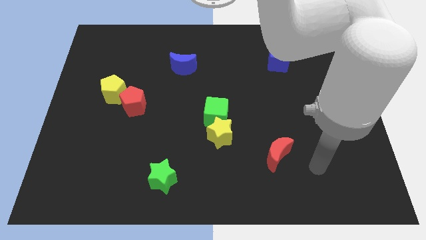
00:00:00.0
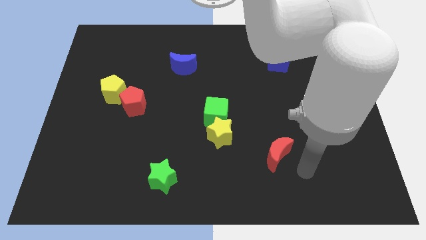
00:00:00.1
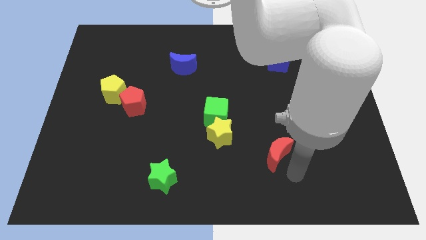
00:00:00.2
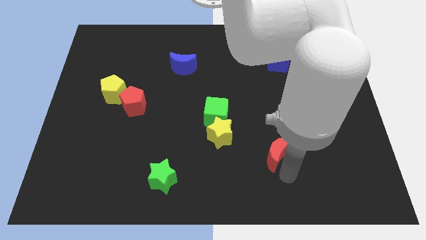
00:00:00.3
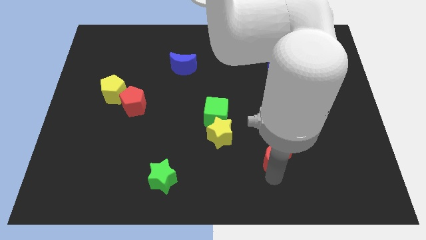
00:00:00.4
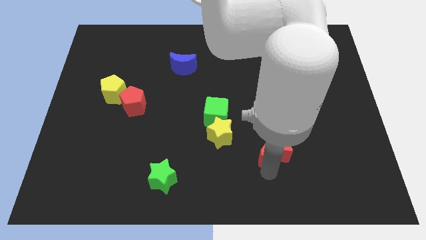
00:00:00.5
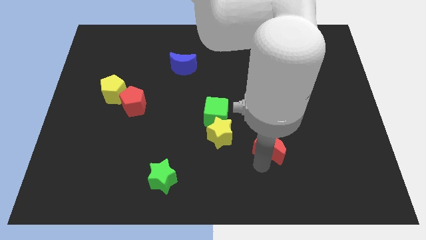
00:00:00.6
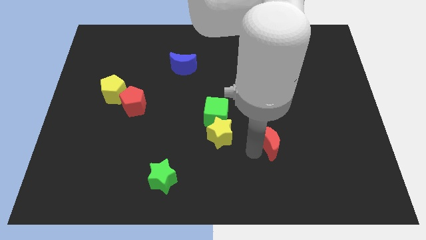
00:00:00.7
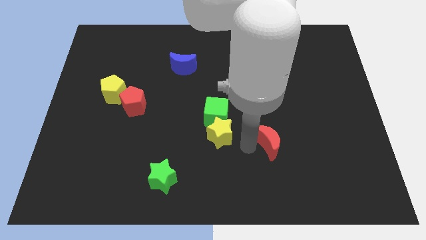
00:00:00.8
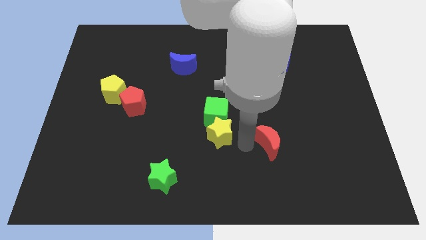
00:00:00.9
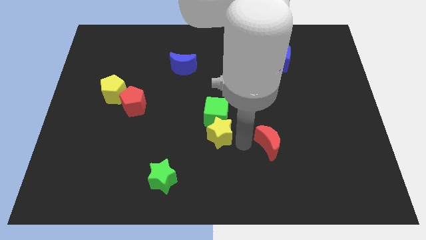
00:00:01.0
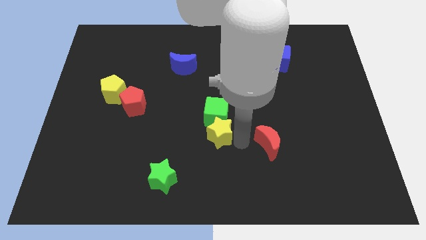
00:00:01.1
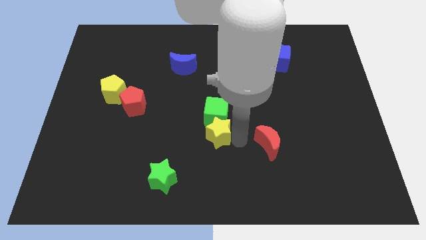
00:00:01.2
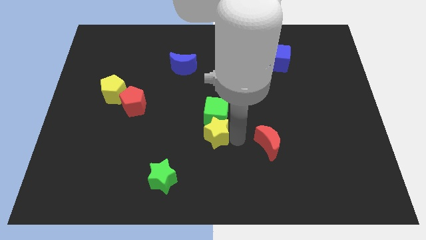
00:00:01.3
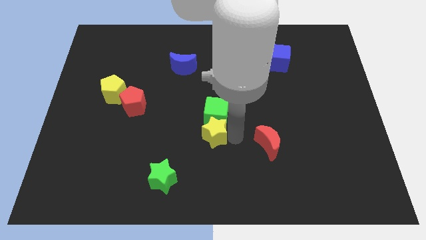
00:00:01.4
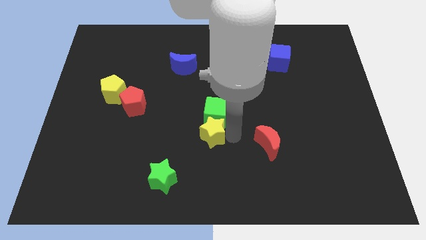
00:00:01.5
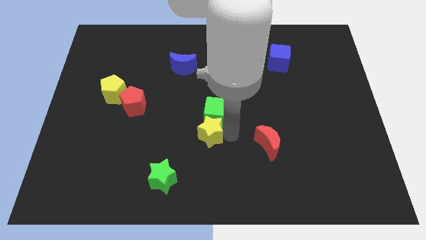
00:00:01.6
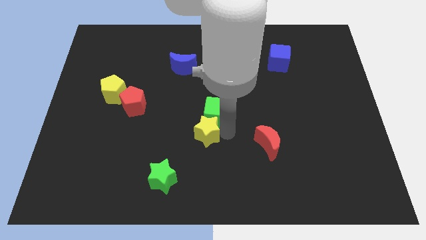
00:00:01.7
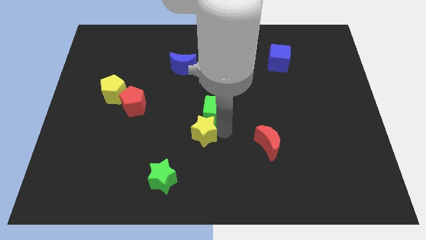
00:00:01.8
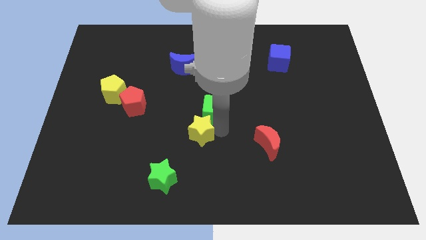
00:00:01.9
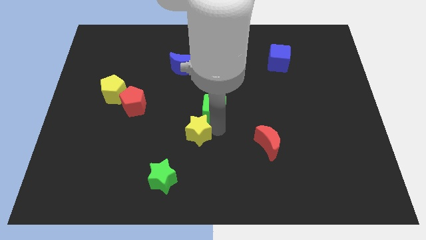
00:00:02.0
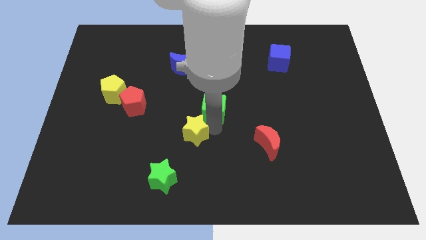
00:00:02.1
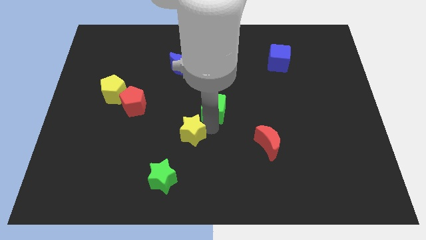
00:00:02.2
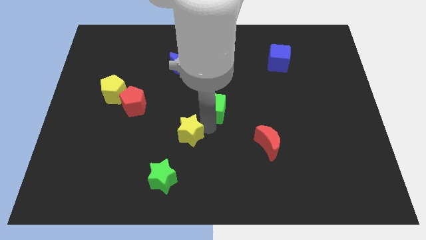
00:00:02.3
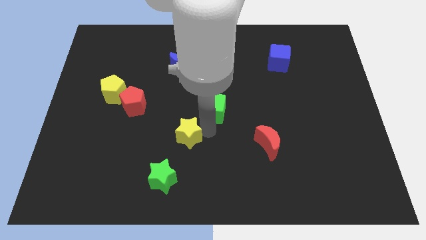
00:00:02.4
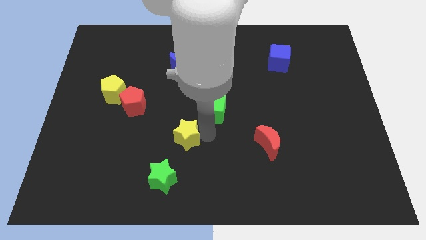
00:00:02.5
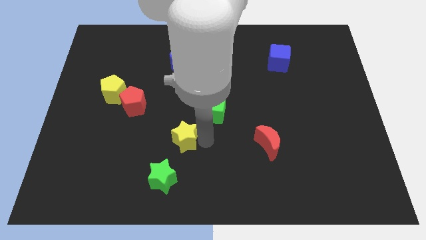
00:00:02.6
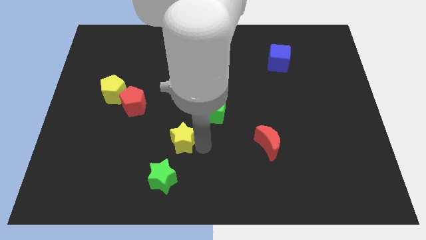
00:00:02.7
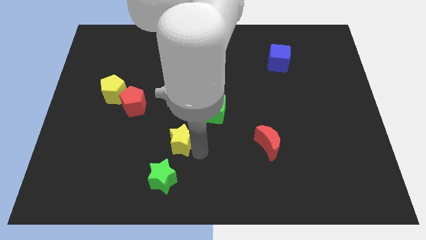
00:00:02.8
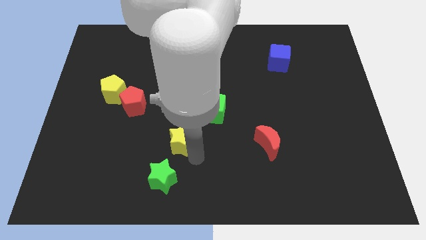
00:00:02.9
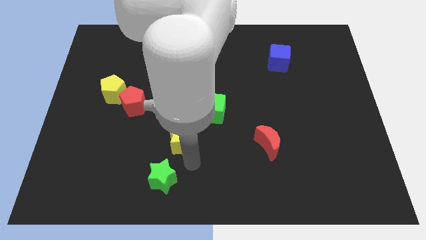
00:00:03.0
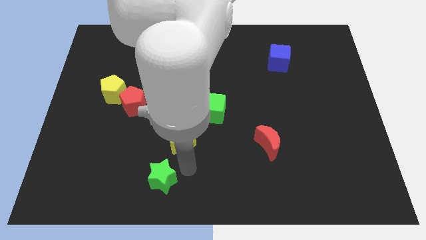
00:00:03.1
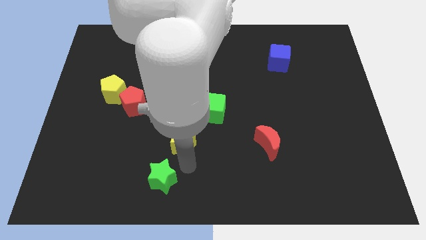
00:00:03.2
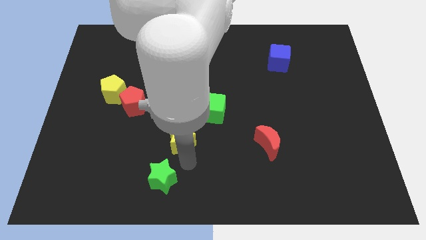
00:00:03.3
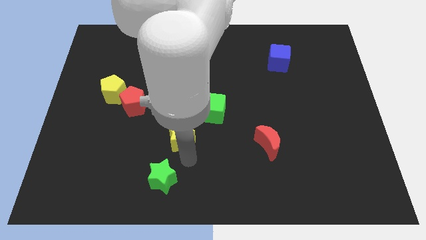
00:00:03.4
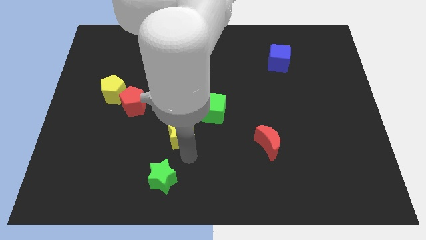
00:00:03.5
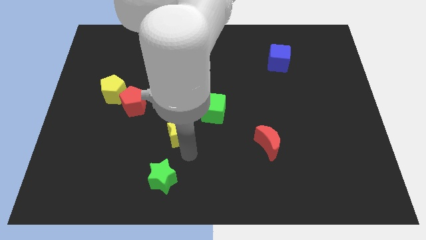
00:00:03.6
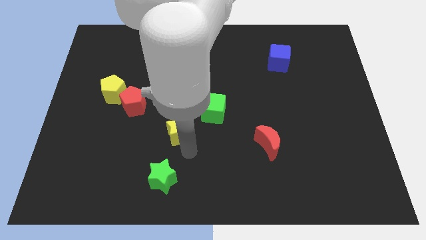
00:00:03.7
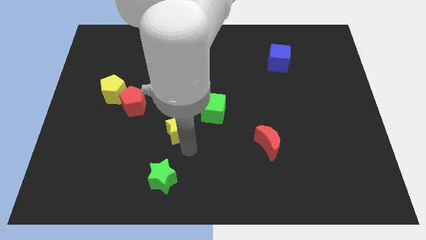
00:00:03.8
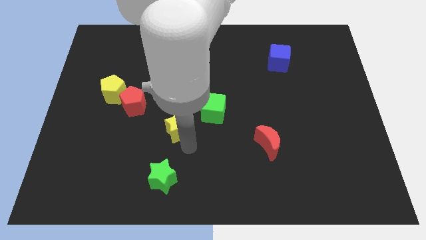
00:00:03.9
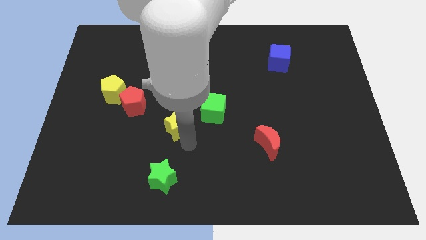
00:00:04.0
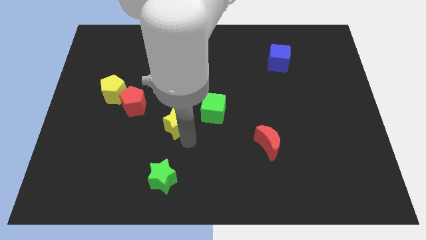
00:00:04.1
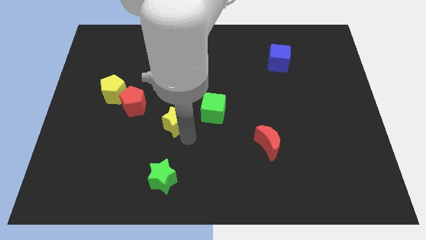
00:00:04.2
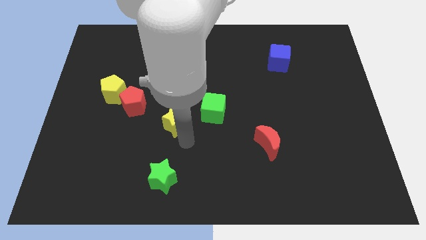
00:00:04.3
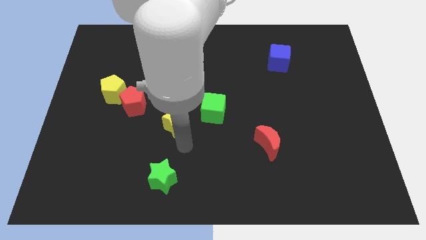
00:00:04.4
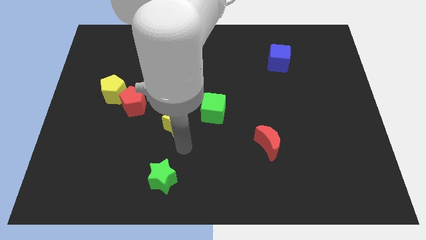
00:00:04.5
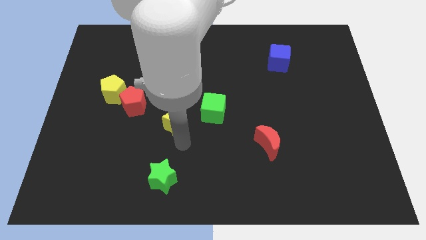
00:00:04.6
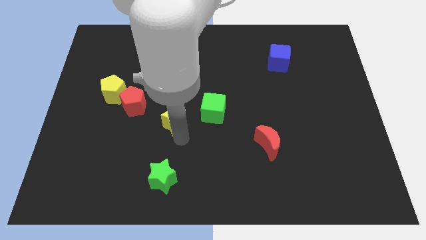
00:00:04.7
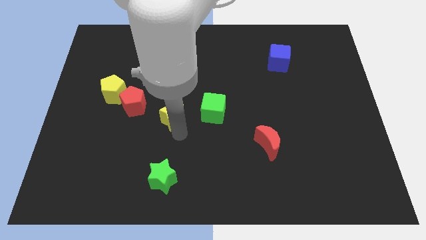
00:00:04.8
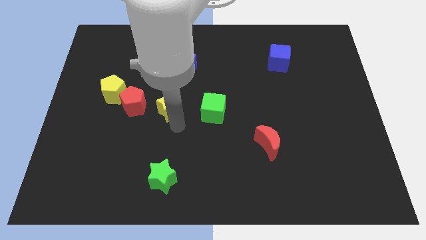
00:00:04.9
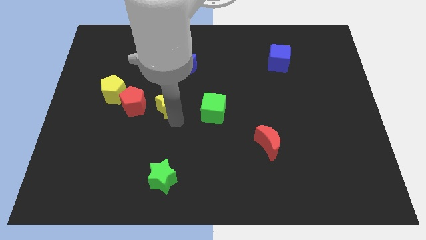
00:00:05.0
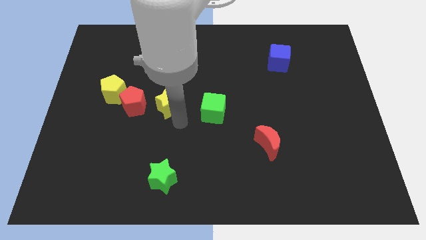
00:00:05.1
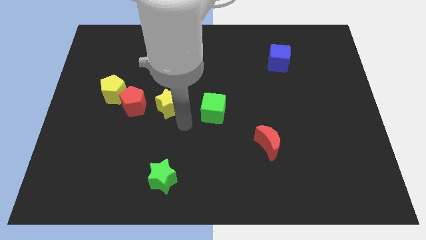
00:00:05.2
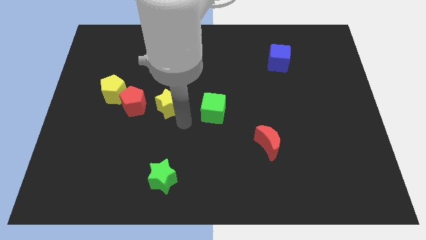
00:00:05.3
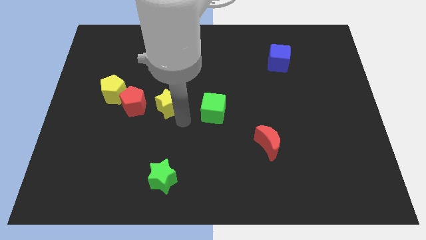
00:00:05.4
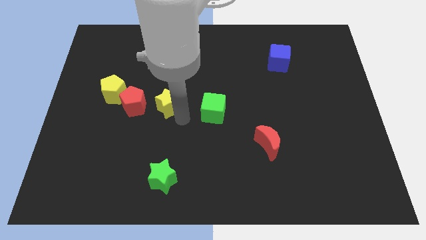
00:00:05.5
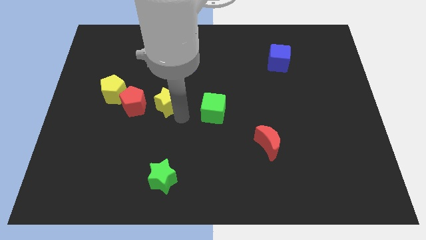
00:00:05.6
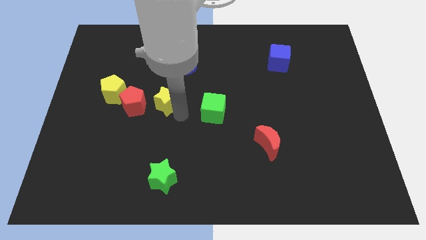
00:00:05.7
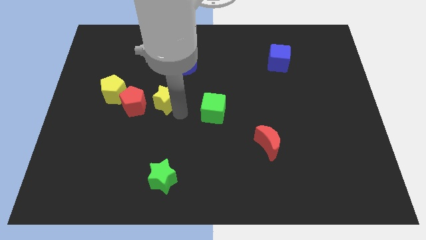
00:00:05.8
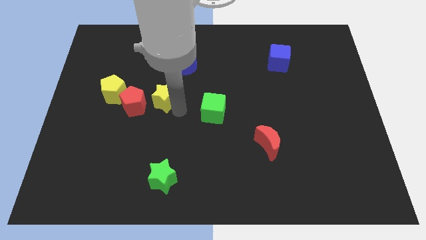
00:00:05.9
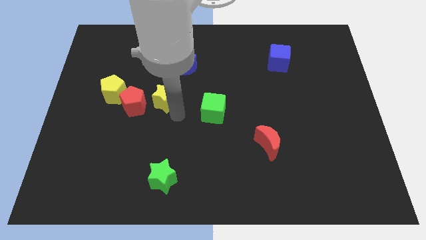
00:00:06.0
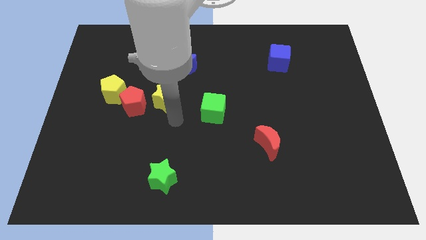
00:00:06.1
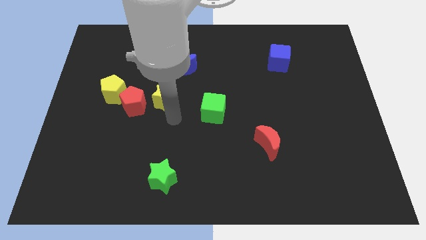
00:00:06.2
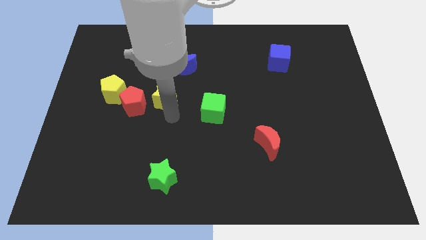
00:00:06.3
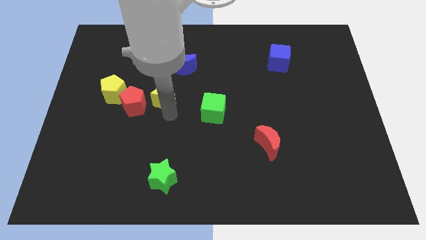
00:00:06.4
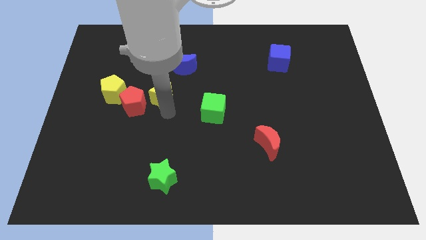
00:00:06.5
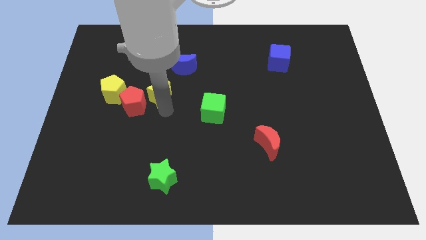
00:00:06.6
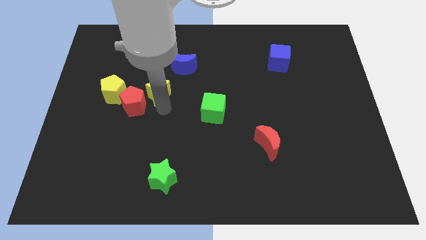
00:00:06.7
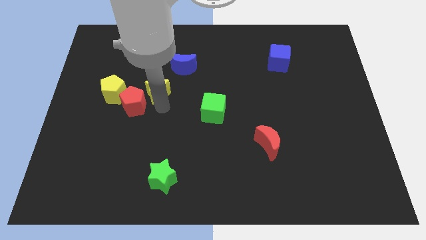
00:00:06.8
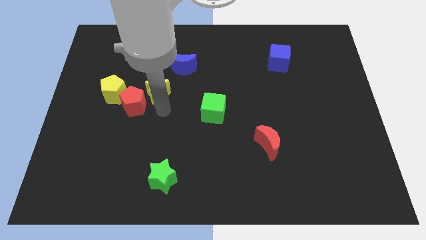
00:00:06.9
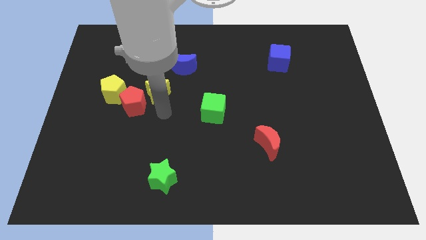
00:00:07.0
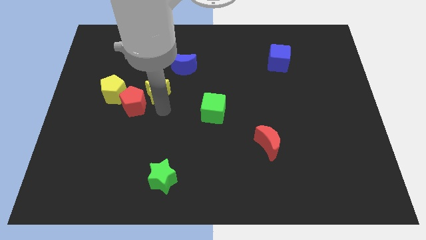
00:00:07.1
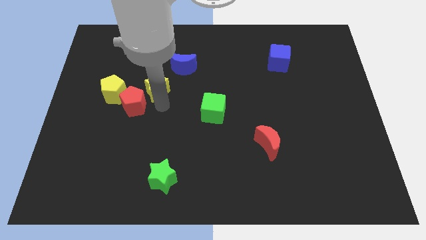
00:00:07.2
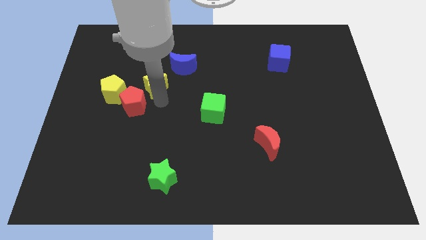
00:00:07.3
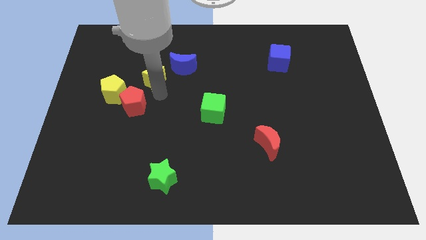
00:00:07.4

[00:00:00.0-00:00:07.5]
slide the yellow star to the left of the blue moon
